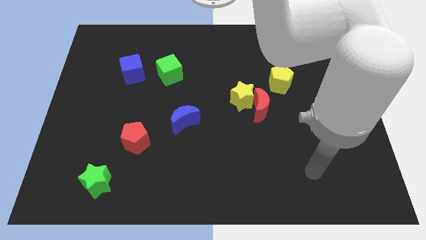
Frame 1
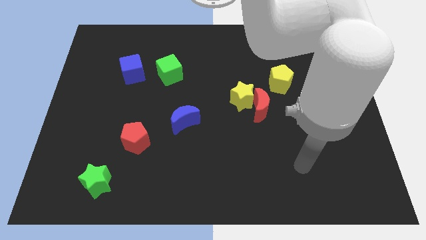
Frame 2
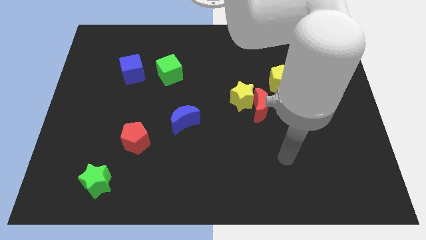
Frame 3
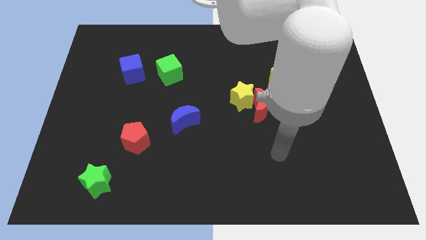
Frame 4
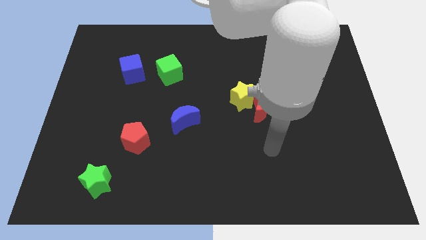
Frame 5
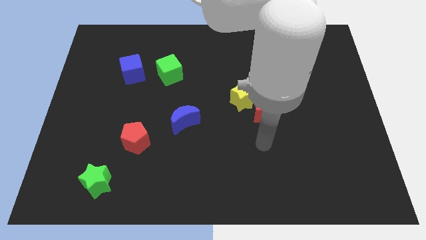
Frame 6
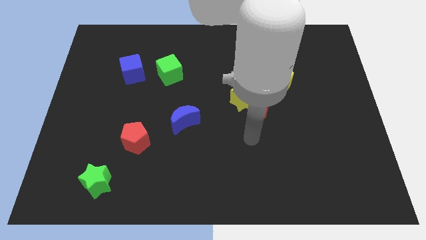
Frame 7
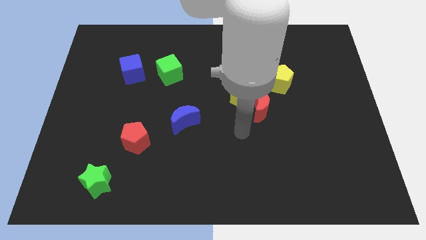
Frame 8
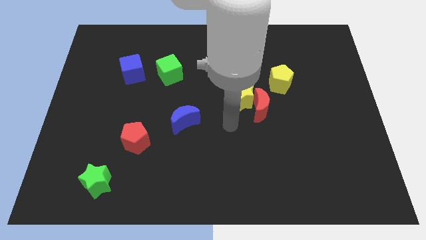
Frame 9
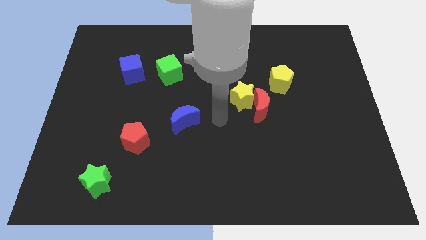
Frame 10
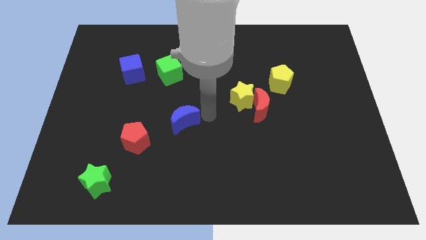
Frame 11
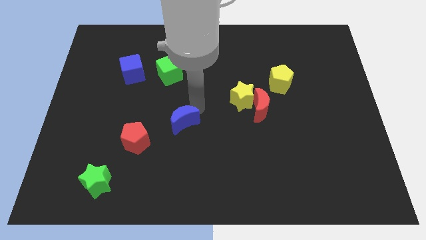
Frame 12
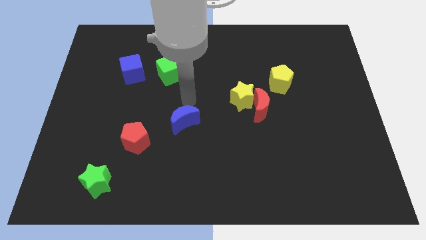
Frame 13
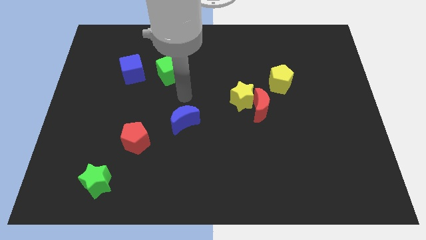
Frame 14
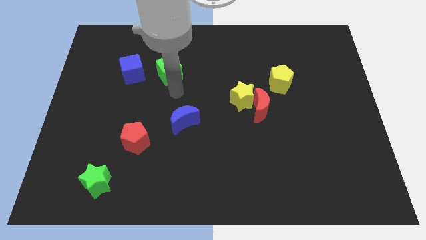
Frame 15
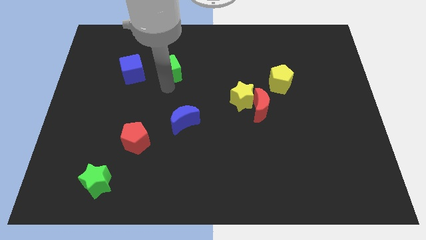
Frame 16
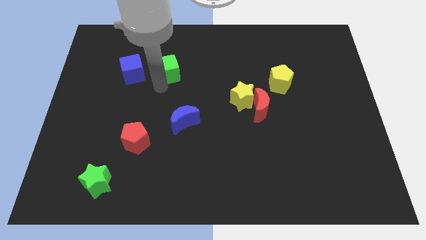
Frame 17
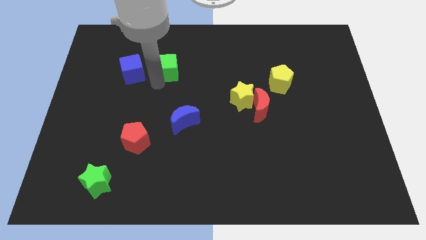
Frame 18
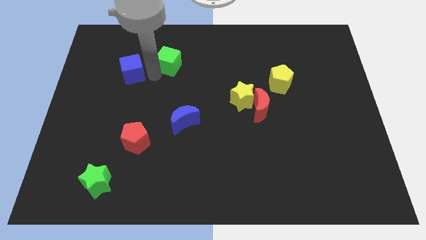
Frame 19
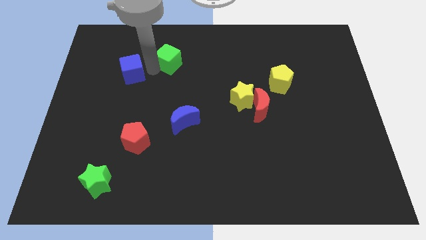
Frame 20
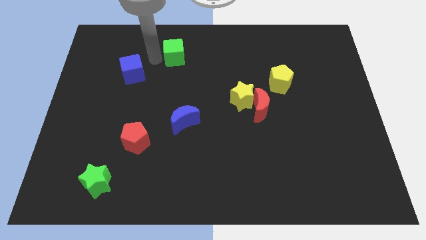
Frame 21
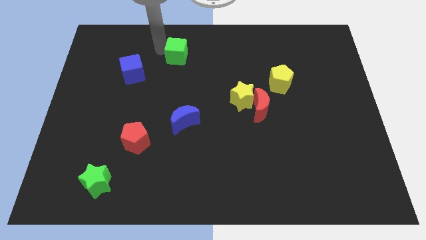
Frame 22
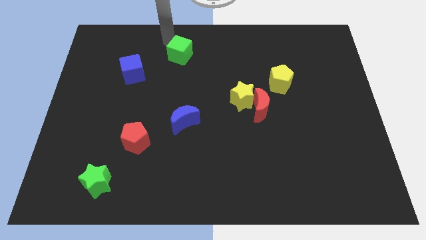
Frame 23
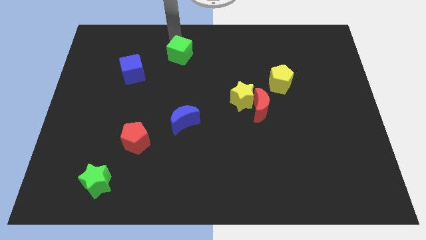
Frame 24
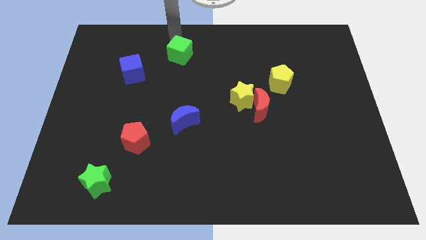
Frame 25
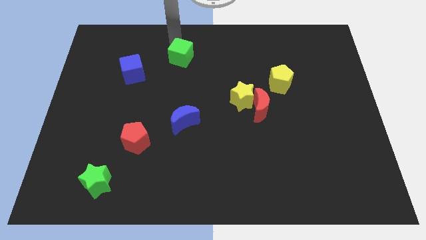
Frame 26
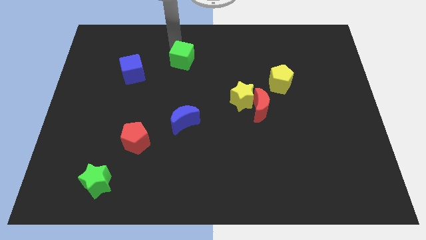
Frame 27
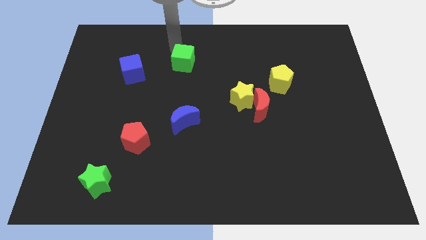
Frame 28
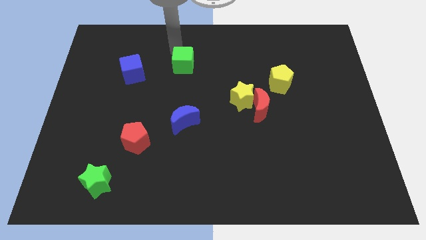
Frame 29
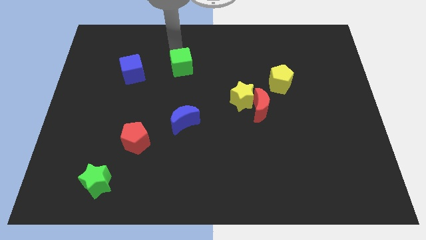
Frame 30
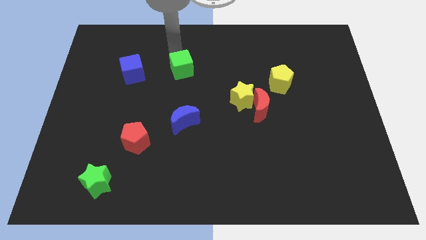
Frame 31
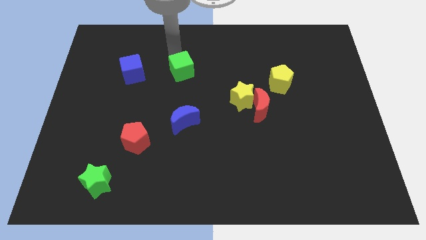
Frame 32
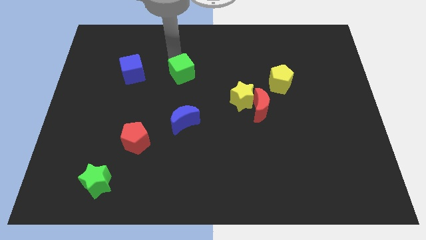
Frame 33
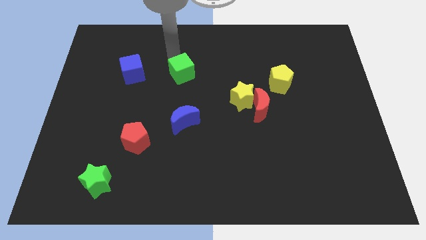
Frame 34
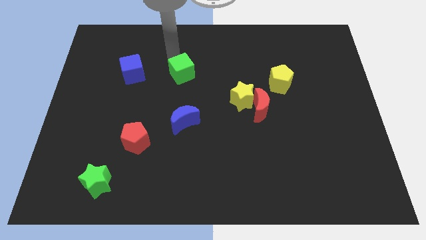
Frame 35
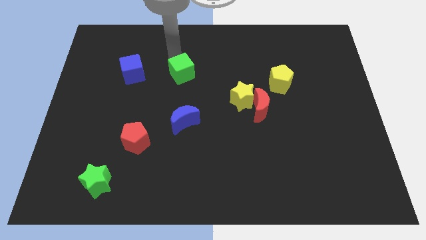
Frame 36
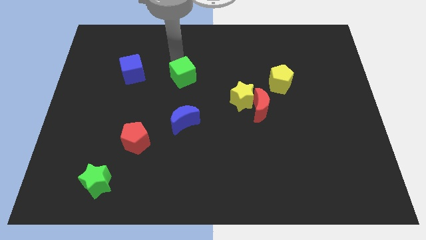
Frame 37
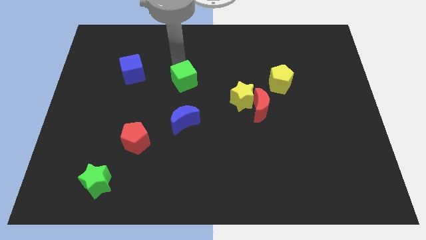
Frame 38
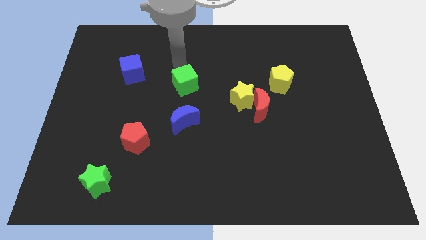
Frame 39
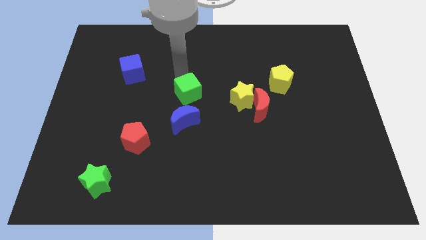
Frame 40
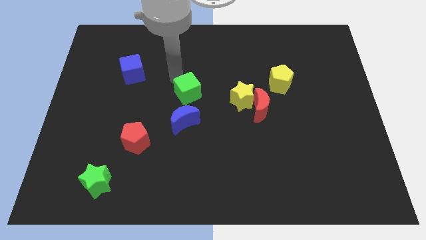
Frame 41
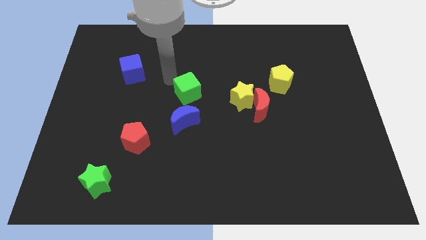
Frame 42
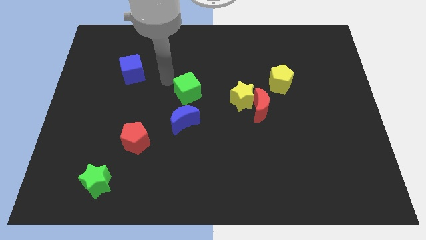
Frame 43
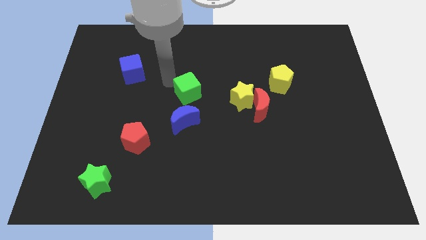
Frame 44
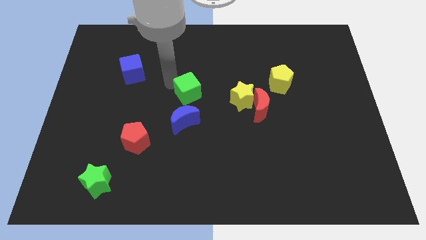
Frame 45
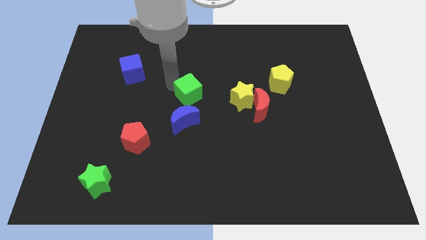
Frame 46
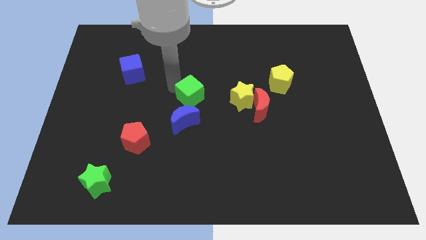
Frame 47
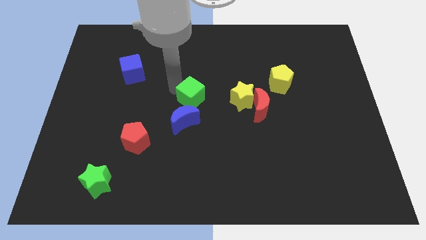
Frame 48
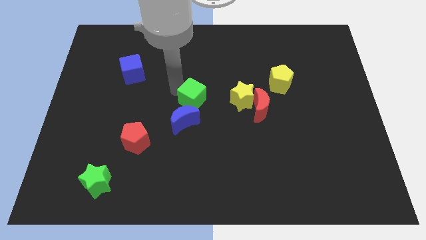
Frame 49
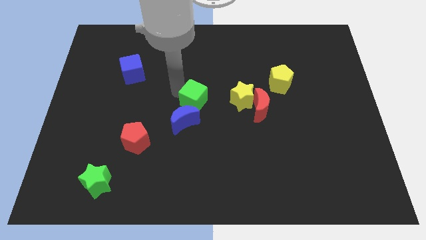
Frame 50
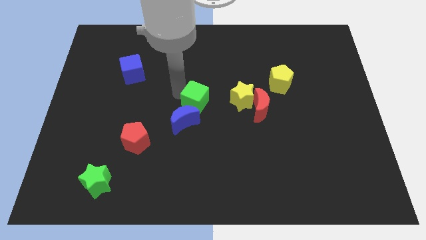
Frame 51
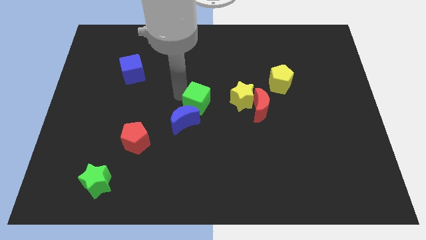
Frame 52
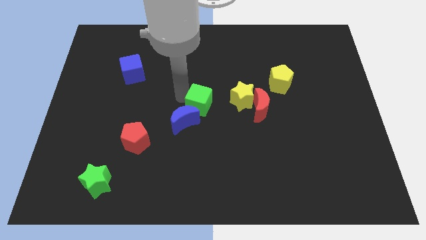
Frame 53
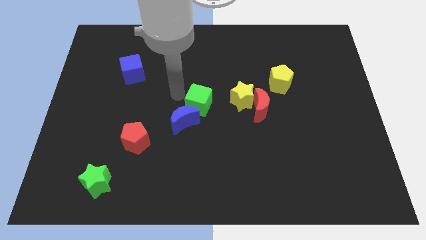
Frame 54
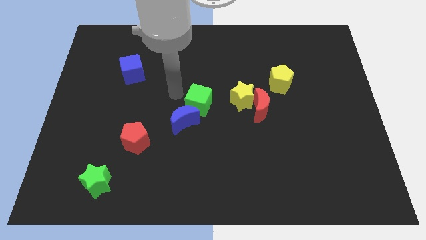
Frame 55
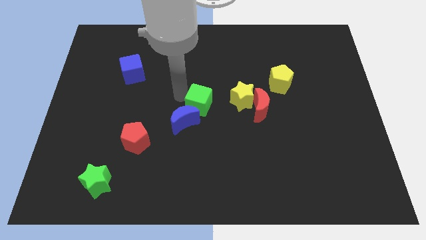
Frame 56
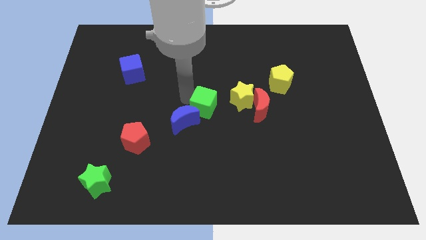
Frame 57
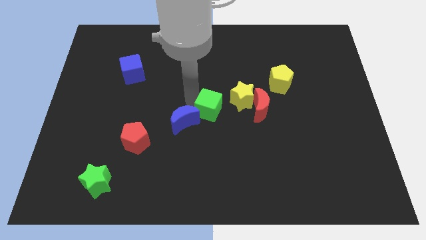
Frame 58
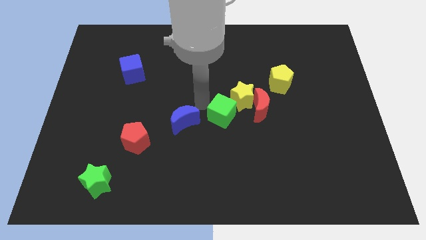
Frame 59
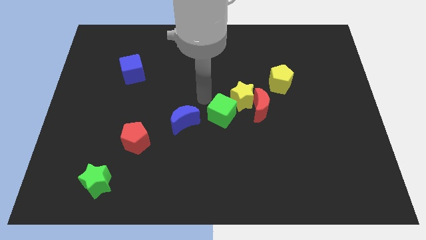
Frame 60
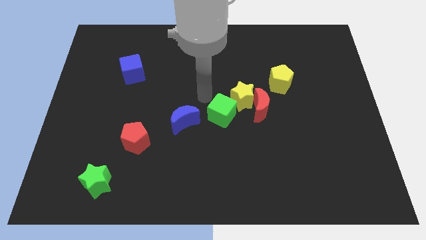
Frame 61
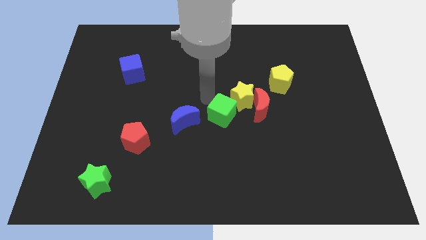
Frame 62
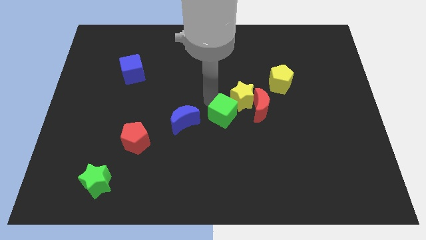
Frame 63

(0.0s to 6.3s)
put the green cube to the bottom side of the yellow star
